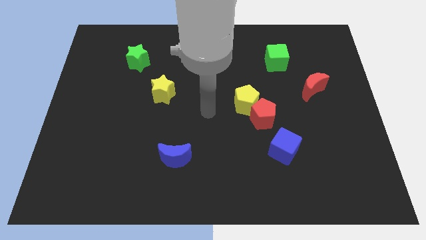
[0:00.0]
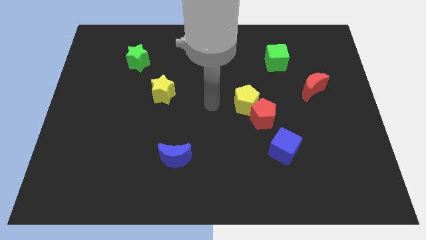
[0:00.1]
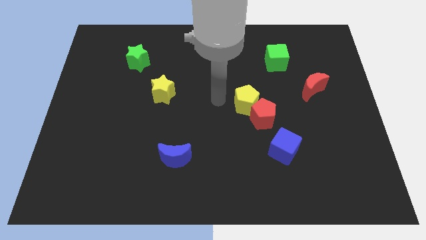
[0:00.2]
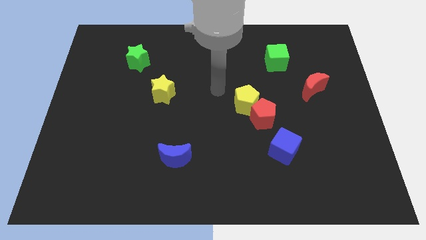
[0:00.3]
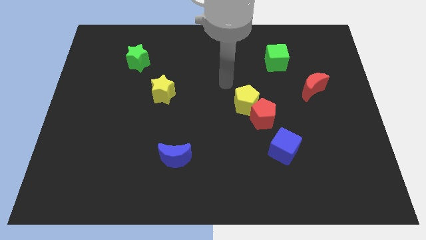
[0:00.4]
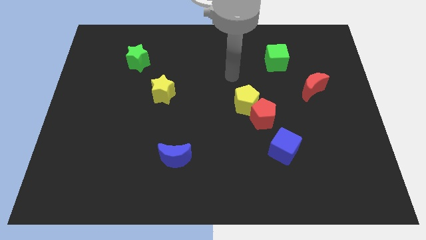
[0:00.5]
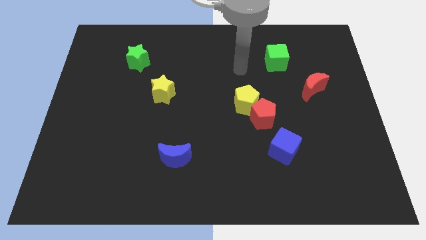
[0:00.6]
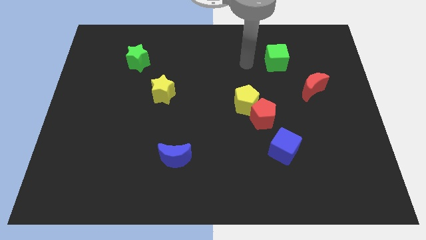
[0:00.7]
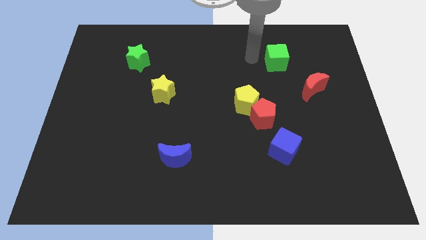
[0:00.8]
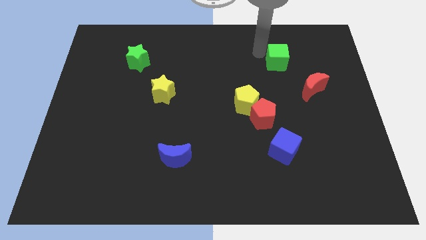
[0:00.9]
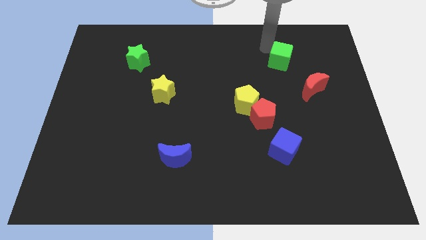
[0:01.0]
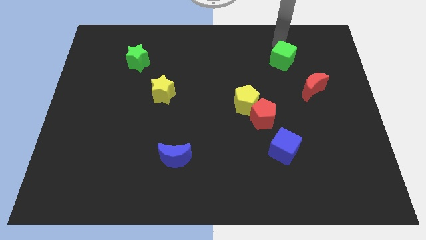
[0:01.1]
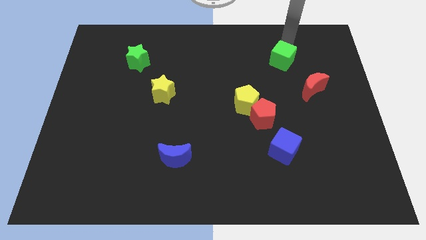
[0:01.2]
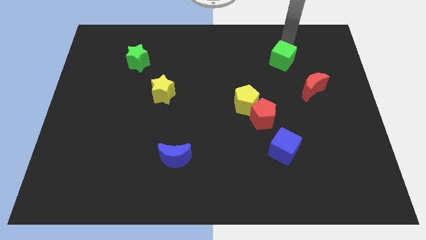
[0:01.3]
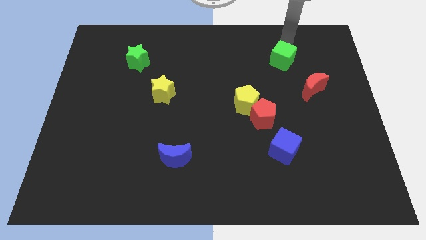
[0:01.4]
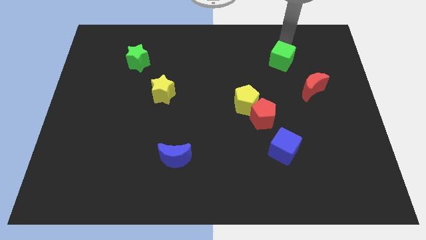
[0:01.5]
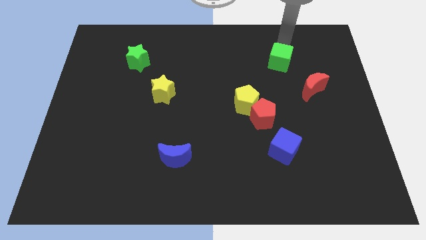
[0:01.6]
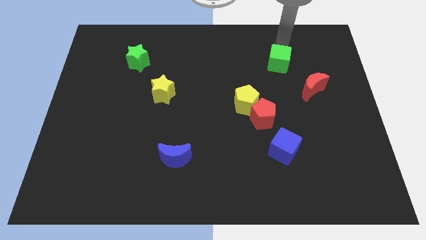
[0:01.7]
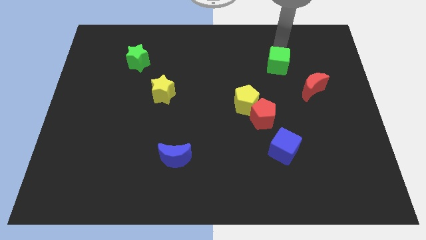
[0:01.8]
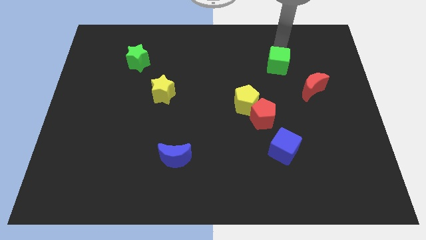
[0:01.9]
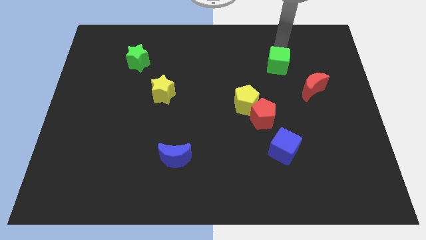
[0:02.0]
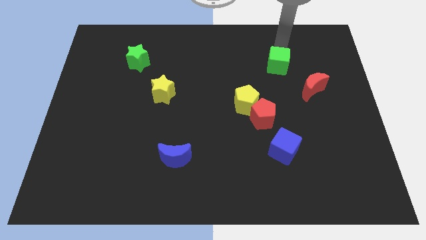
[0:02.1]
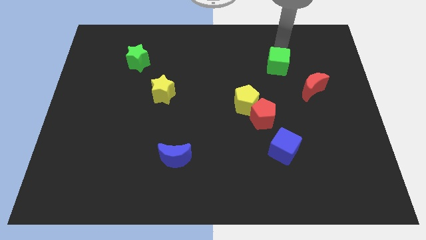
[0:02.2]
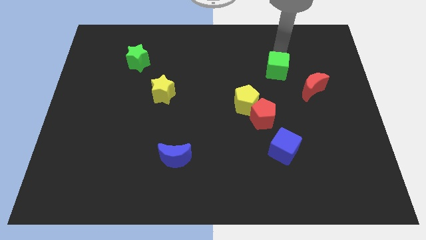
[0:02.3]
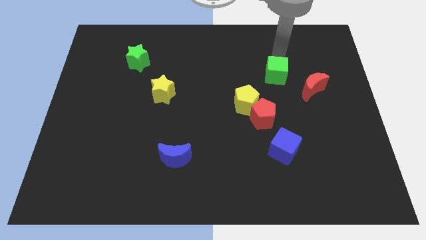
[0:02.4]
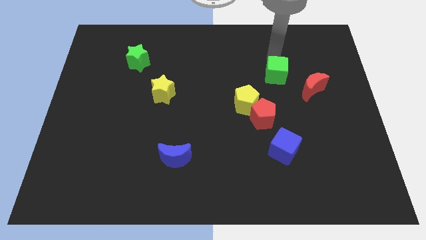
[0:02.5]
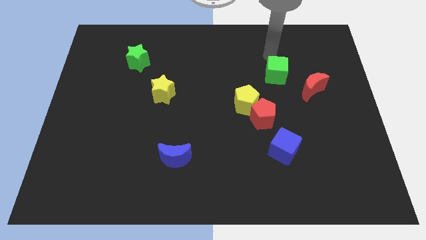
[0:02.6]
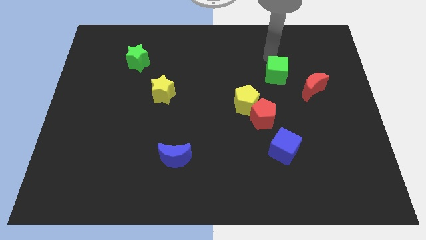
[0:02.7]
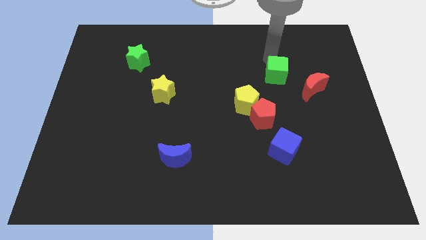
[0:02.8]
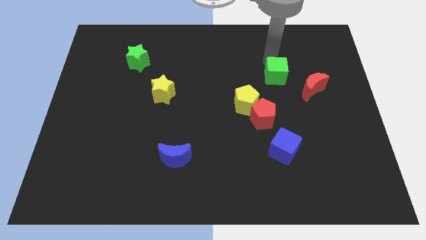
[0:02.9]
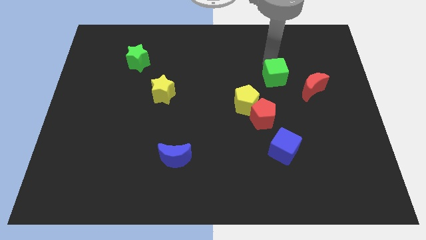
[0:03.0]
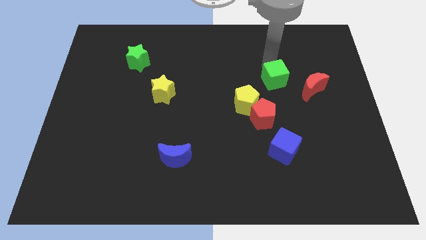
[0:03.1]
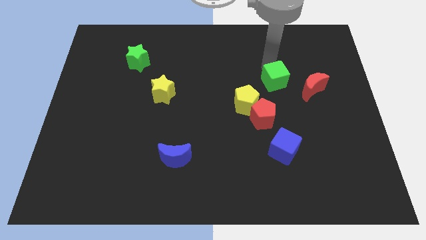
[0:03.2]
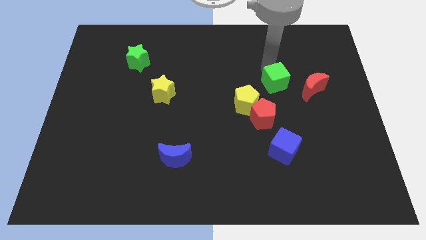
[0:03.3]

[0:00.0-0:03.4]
slide the green cube down a bit

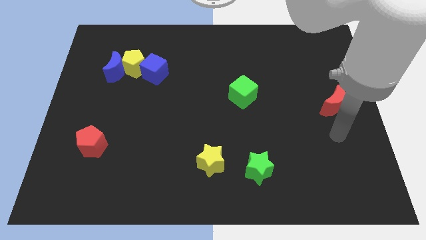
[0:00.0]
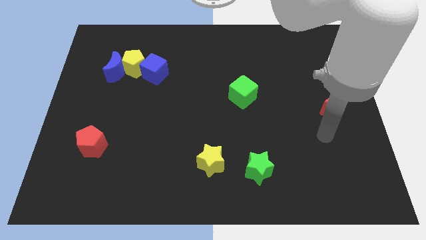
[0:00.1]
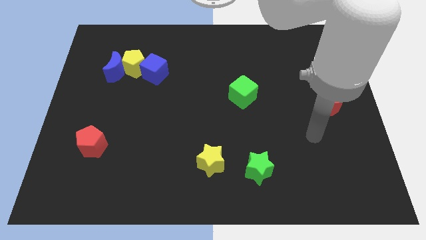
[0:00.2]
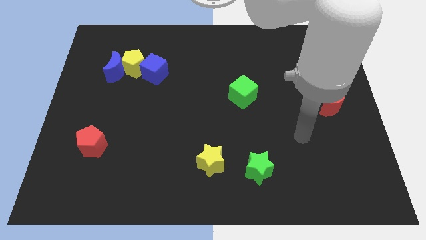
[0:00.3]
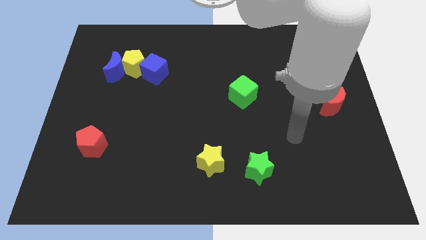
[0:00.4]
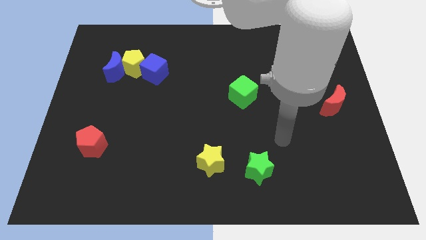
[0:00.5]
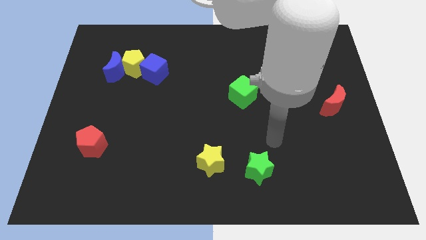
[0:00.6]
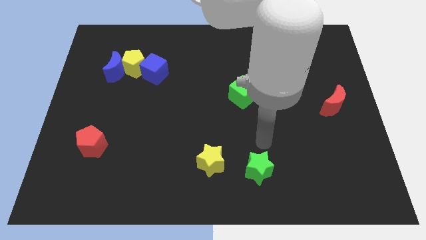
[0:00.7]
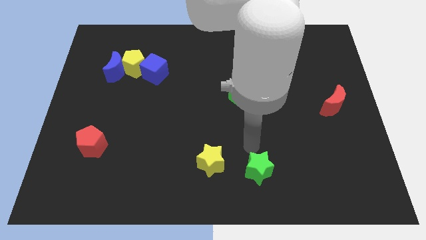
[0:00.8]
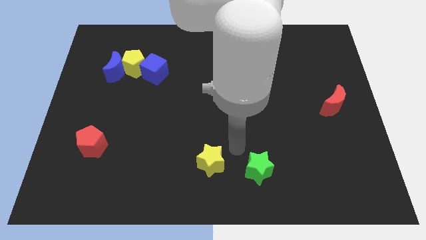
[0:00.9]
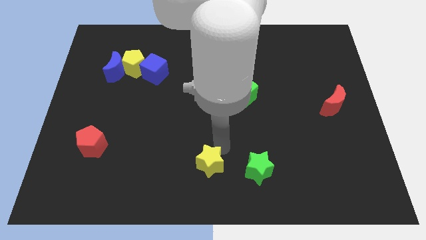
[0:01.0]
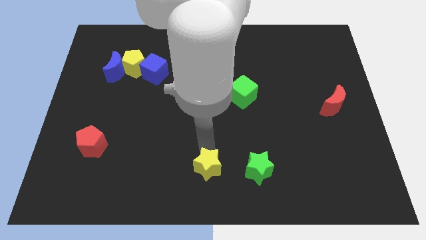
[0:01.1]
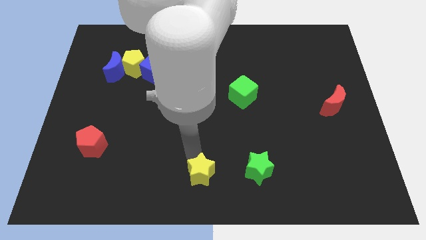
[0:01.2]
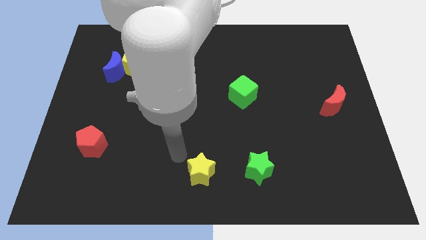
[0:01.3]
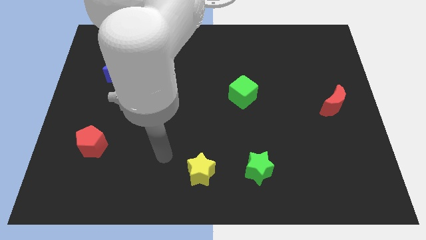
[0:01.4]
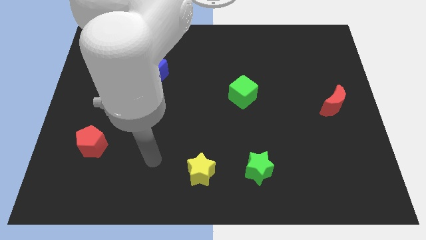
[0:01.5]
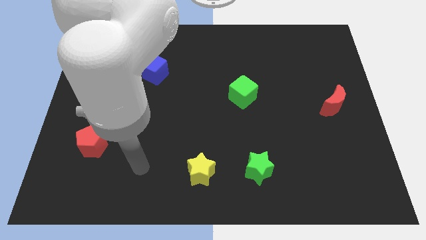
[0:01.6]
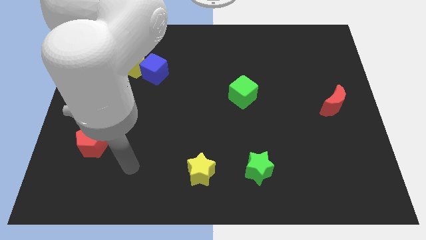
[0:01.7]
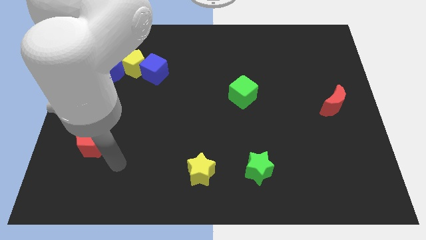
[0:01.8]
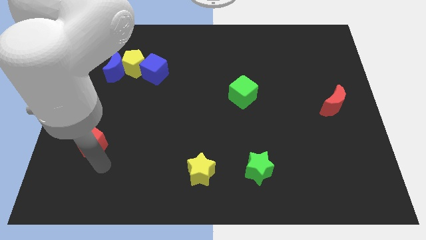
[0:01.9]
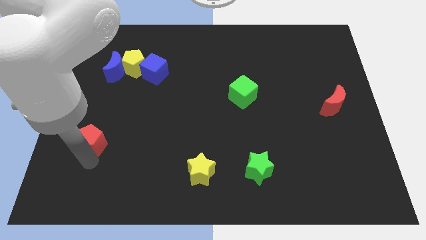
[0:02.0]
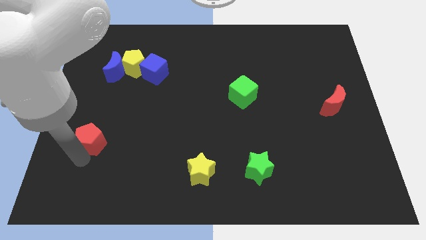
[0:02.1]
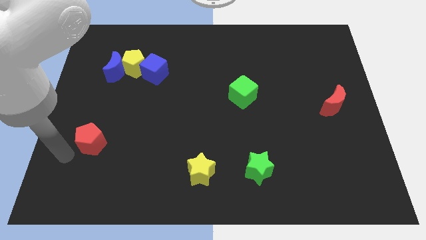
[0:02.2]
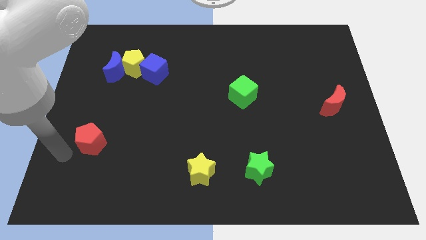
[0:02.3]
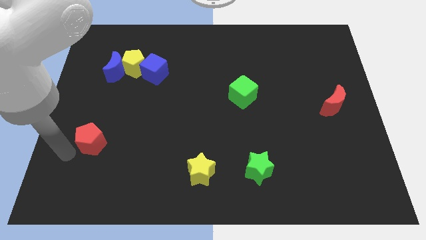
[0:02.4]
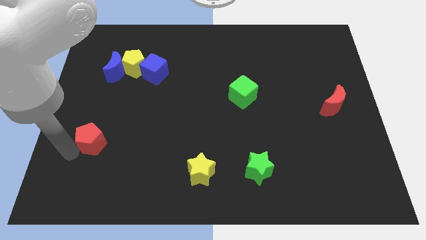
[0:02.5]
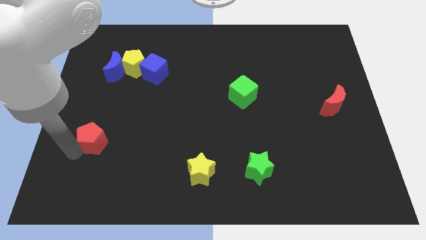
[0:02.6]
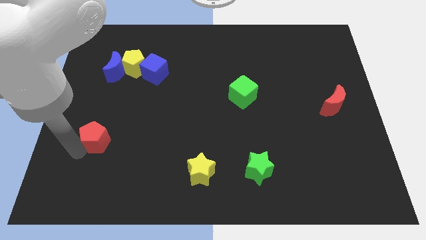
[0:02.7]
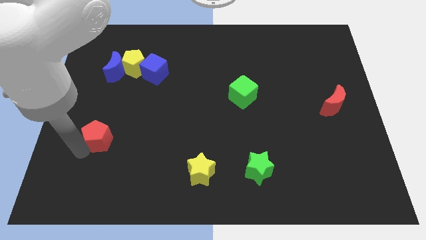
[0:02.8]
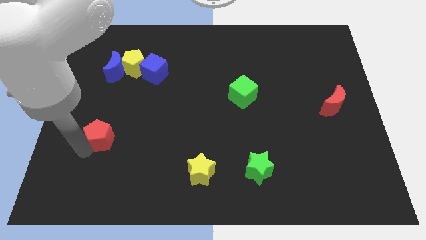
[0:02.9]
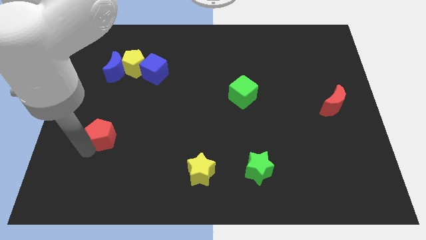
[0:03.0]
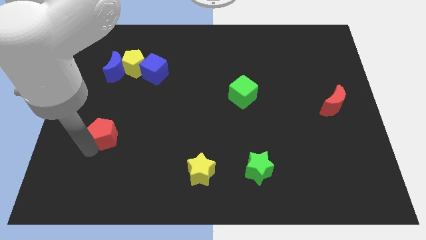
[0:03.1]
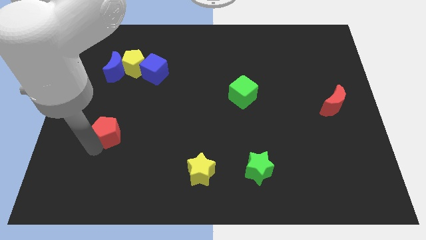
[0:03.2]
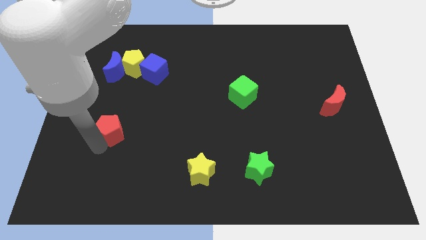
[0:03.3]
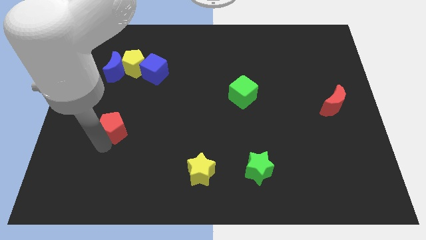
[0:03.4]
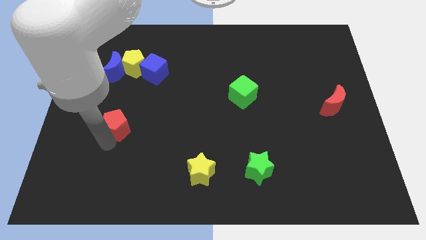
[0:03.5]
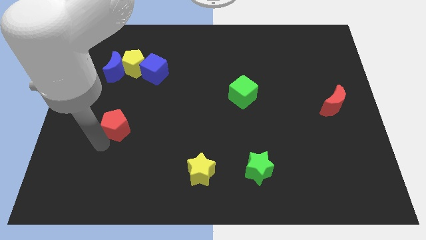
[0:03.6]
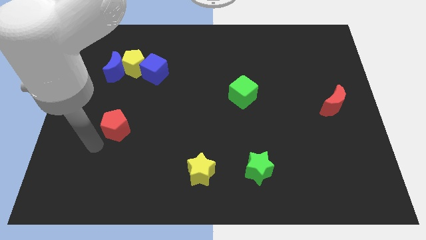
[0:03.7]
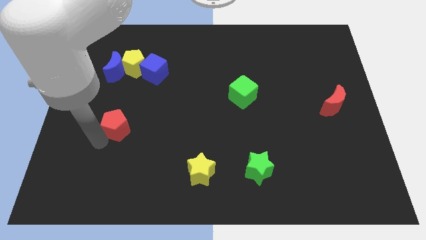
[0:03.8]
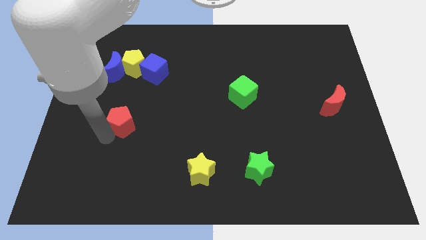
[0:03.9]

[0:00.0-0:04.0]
slightly push the red pentagon up and right diagonally

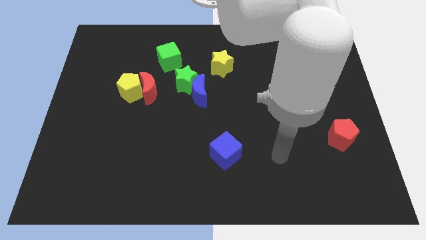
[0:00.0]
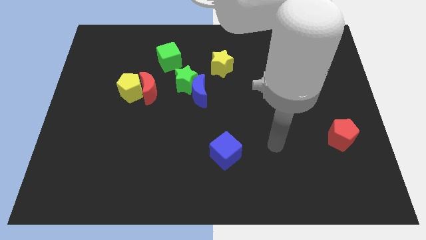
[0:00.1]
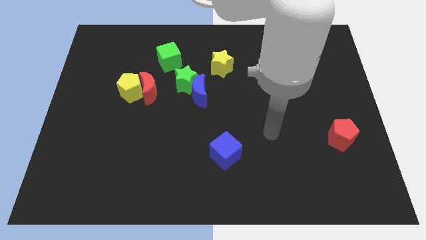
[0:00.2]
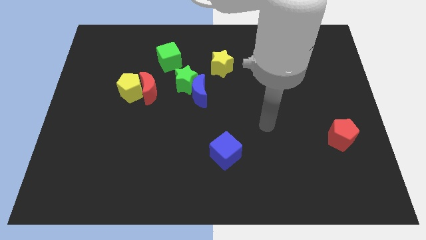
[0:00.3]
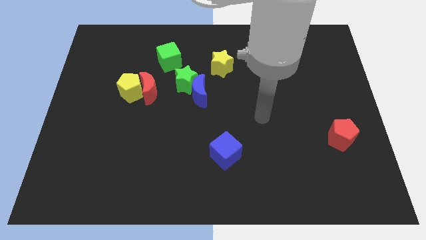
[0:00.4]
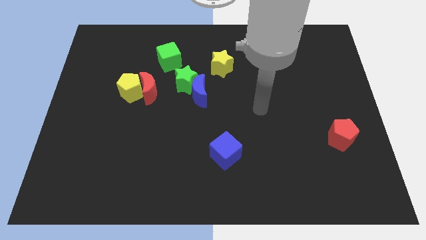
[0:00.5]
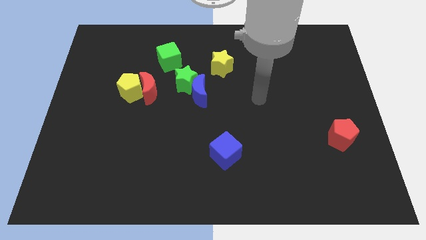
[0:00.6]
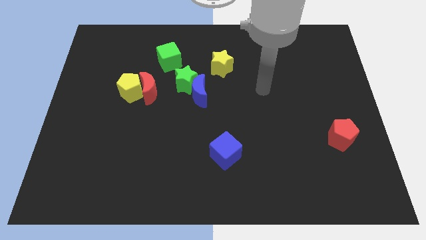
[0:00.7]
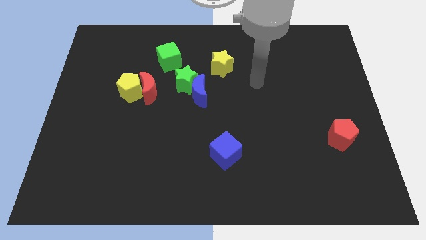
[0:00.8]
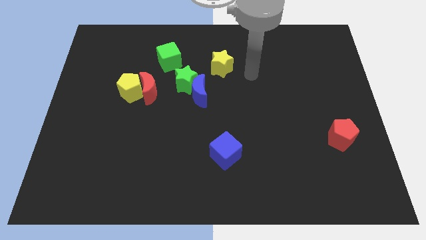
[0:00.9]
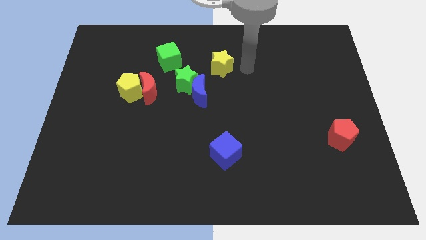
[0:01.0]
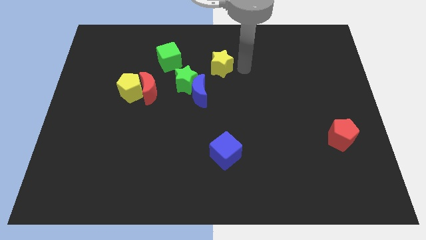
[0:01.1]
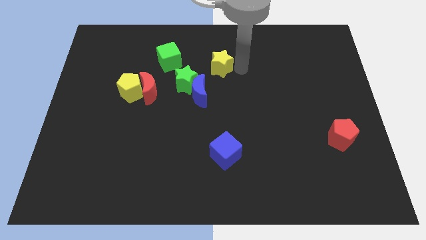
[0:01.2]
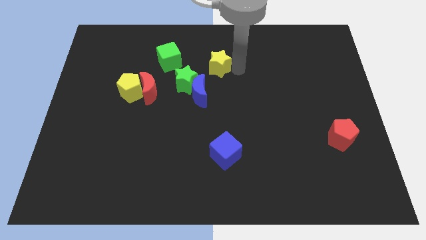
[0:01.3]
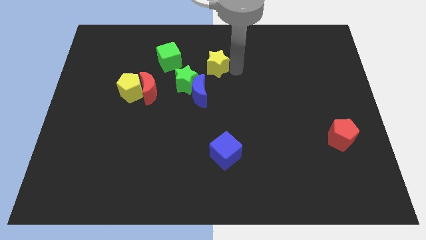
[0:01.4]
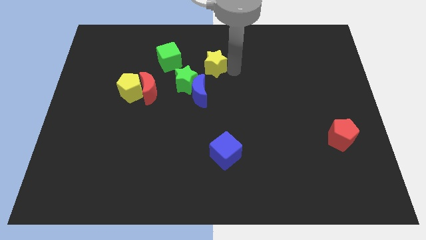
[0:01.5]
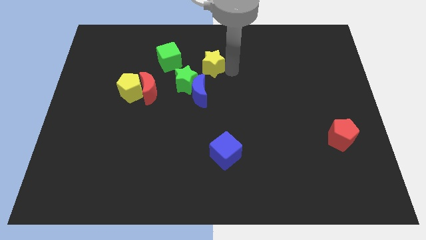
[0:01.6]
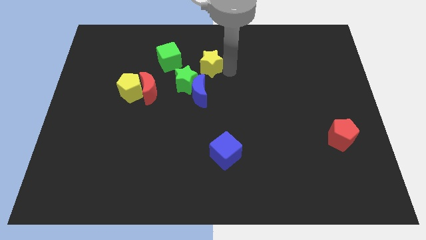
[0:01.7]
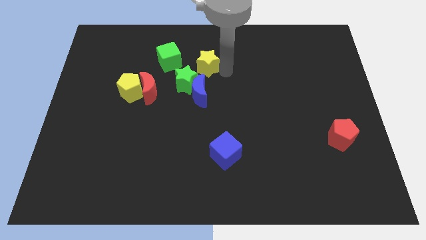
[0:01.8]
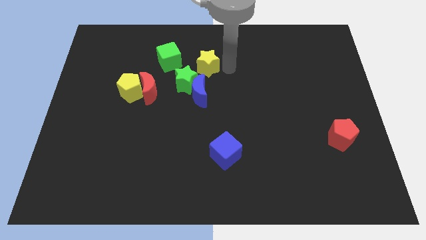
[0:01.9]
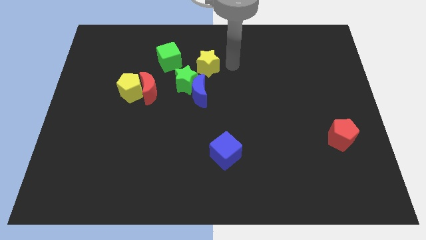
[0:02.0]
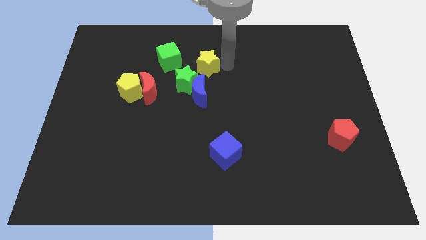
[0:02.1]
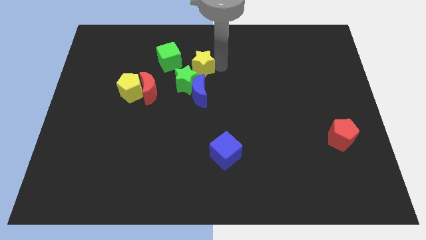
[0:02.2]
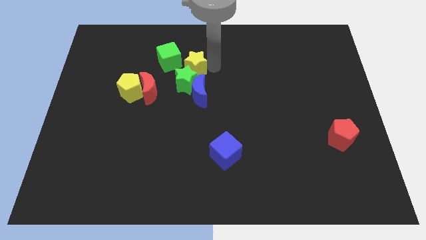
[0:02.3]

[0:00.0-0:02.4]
slide the yellow star left slightly
